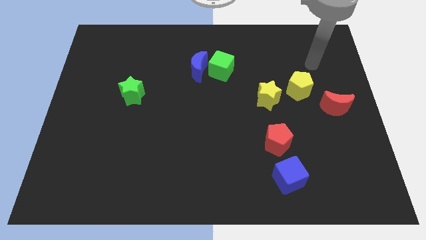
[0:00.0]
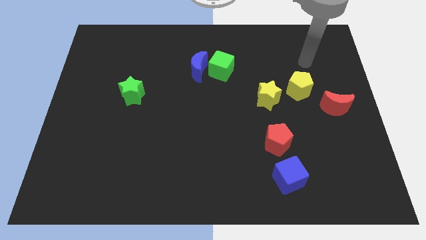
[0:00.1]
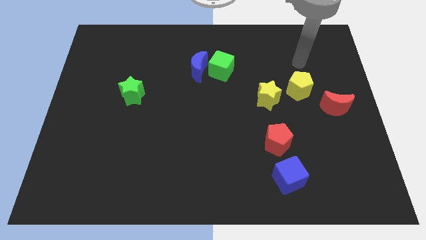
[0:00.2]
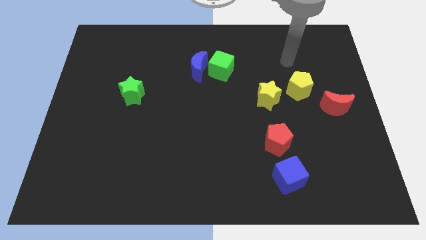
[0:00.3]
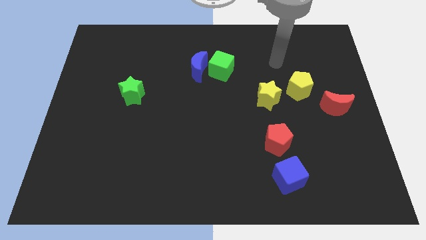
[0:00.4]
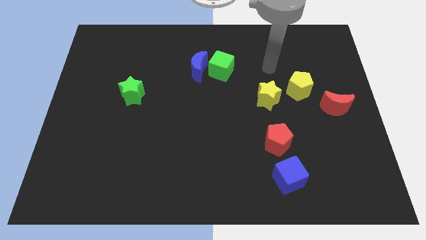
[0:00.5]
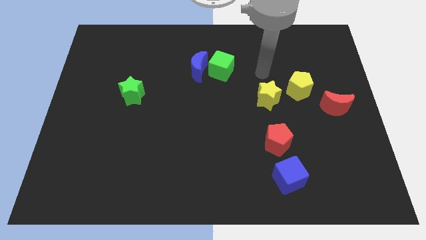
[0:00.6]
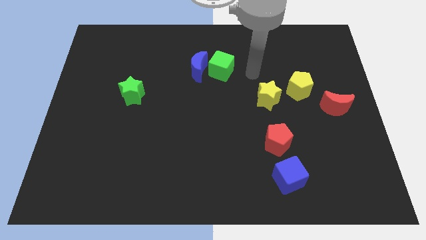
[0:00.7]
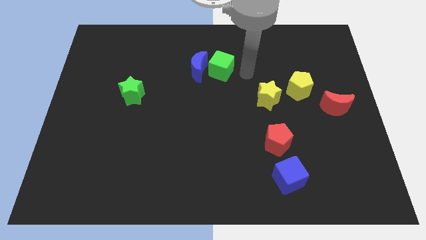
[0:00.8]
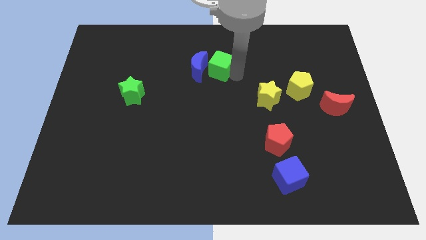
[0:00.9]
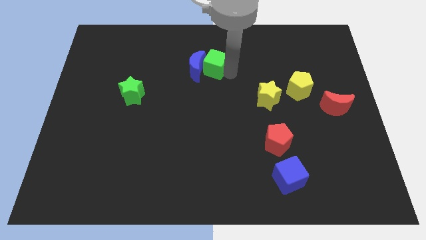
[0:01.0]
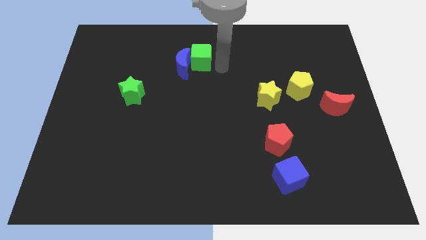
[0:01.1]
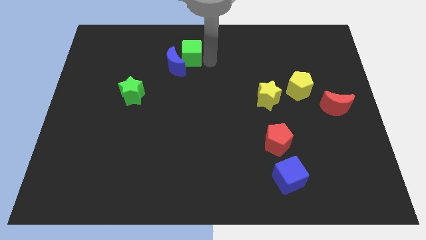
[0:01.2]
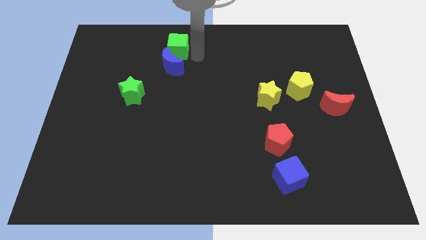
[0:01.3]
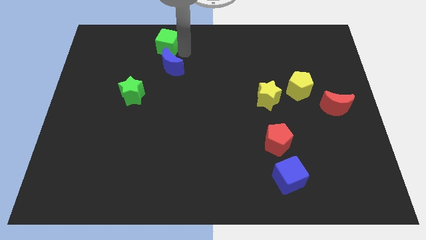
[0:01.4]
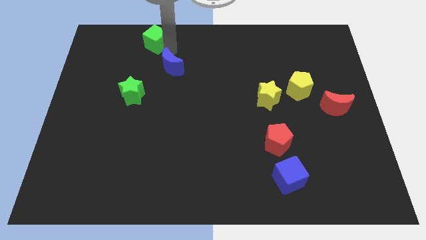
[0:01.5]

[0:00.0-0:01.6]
pull the blue moon apart from the green cube

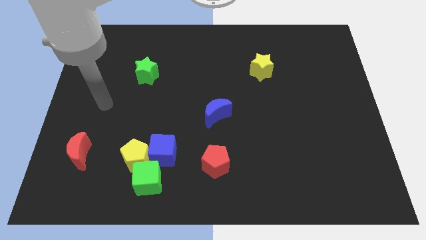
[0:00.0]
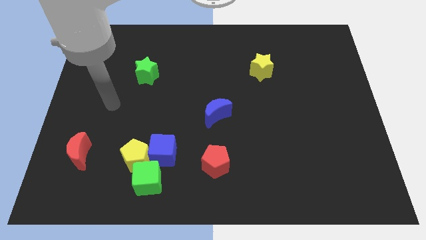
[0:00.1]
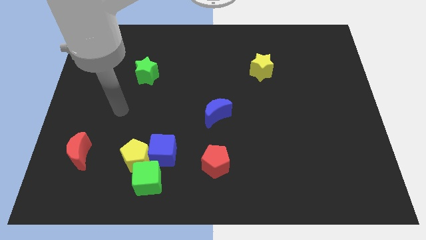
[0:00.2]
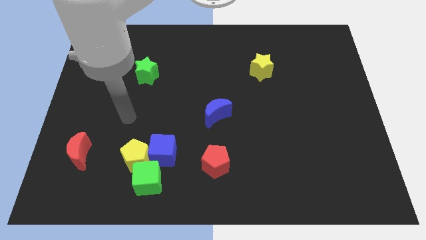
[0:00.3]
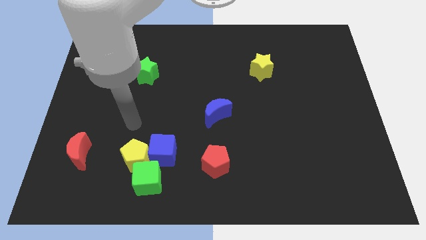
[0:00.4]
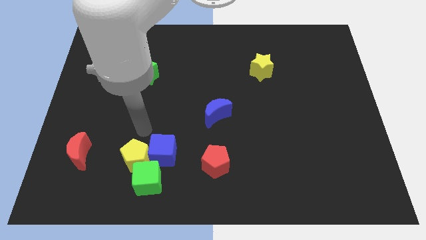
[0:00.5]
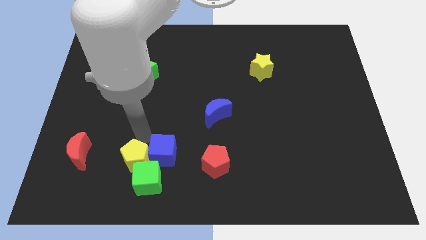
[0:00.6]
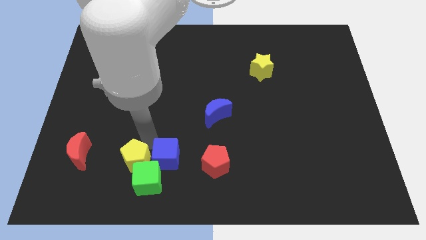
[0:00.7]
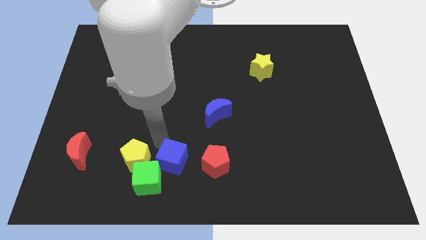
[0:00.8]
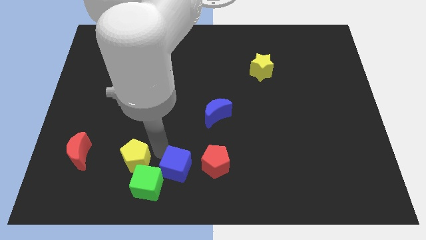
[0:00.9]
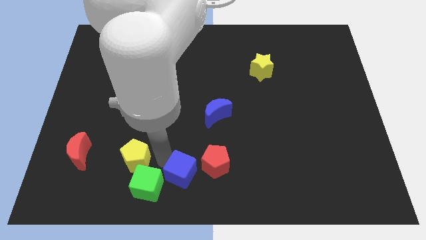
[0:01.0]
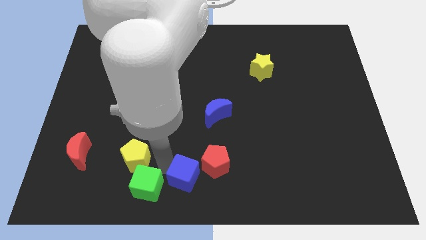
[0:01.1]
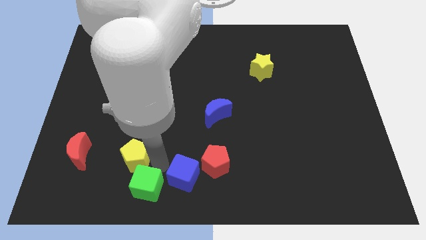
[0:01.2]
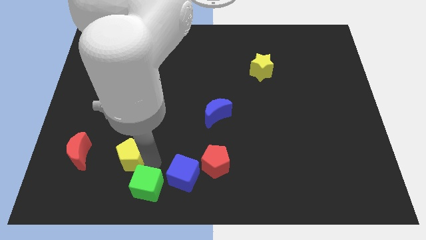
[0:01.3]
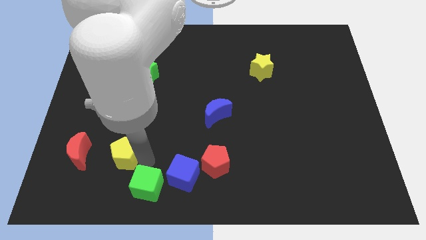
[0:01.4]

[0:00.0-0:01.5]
move the yellow pentagon away from the blue cube and green cube

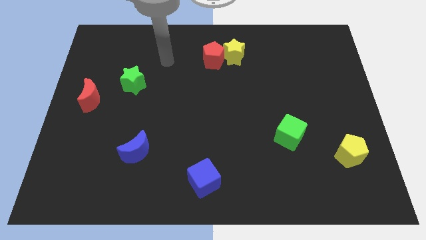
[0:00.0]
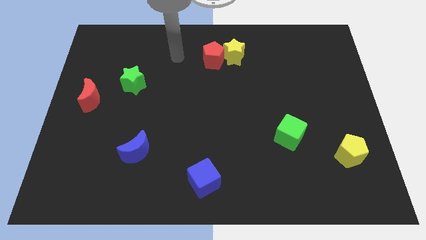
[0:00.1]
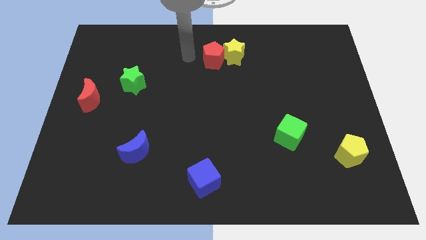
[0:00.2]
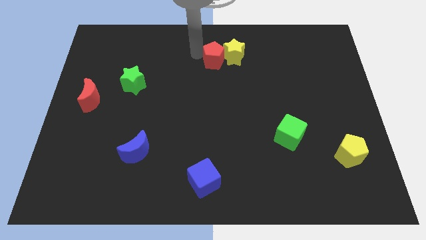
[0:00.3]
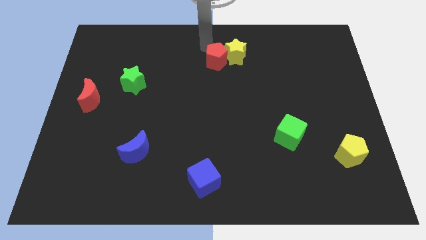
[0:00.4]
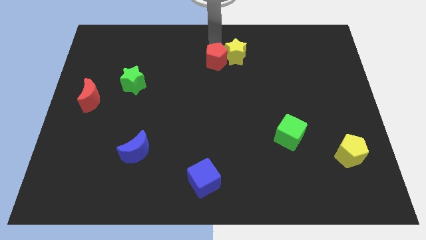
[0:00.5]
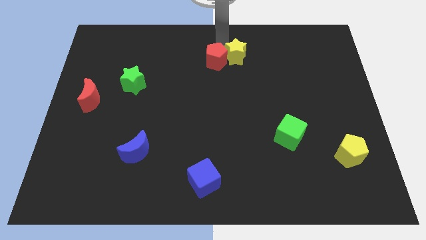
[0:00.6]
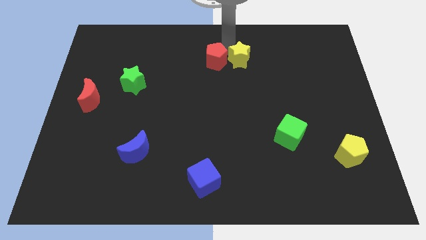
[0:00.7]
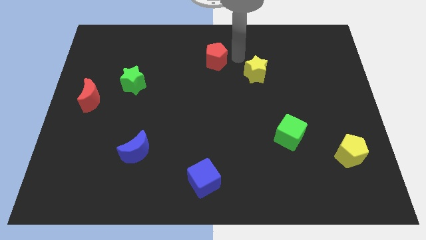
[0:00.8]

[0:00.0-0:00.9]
separate the red pentagon from the yellow star

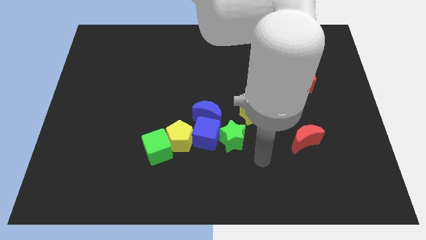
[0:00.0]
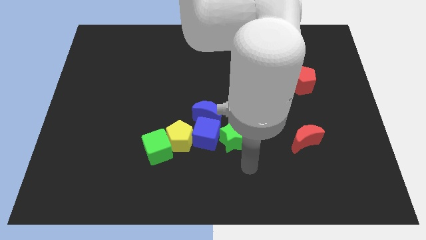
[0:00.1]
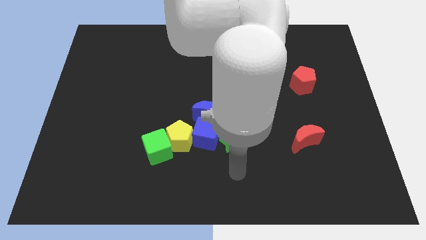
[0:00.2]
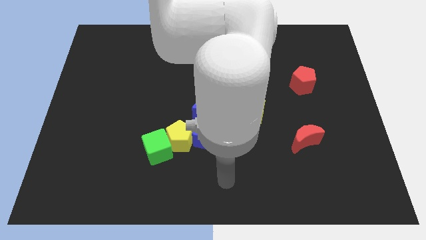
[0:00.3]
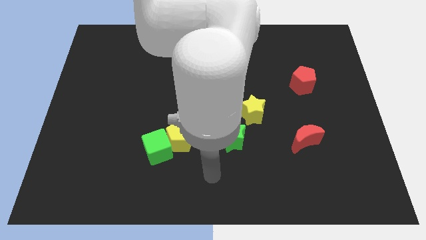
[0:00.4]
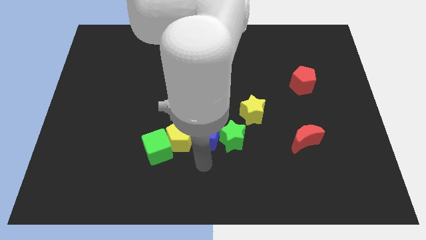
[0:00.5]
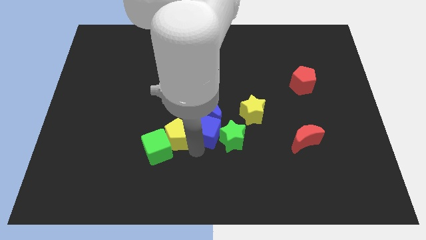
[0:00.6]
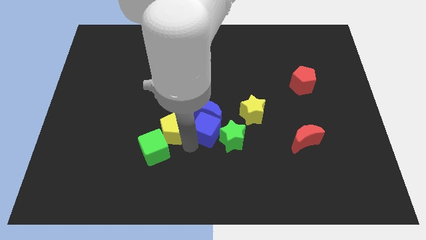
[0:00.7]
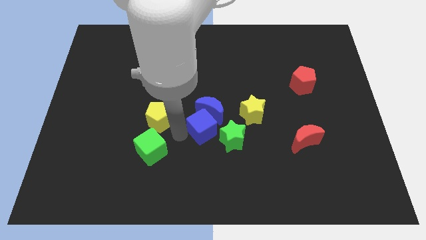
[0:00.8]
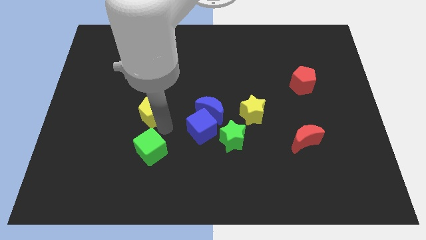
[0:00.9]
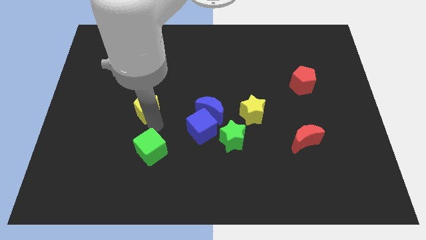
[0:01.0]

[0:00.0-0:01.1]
separate the green cube from the yellow pentagon

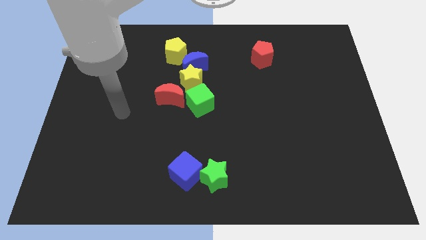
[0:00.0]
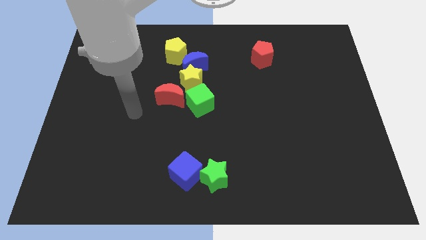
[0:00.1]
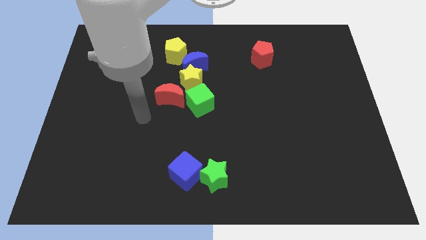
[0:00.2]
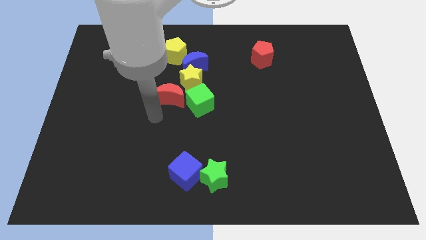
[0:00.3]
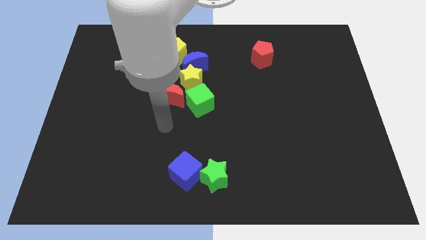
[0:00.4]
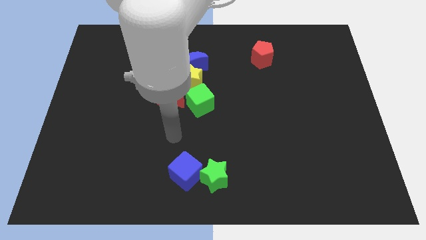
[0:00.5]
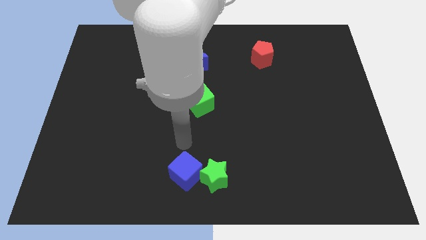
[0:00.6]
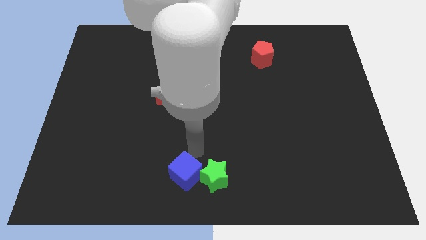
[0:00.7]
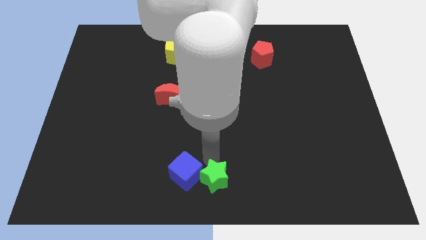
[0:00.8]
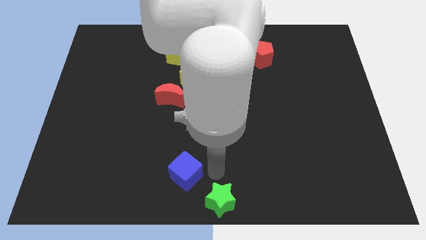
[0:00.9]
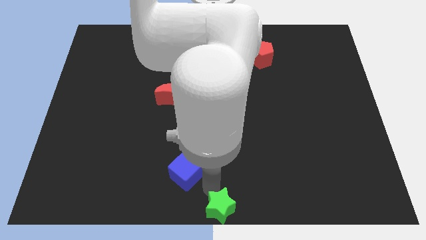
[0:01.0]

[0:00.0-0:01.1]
separate the blue cube from the green star

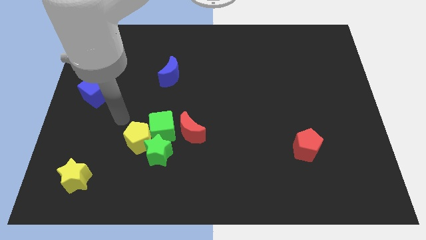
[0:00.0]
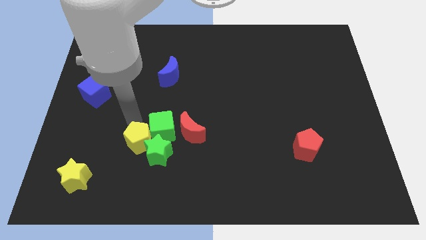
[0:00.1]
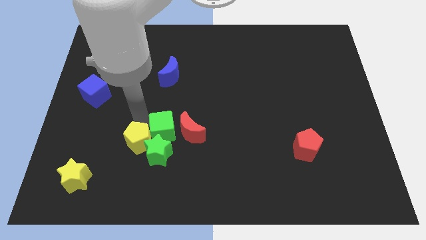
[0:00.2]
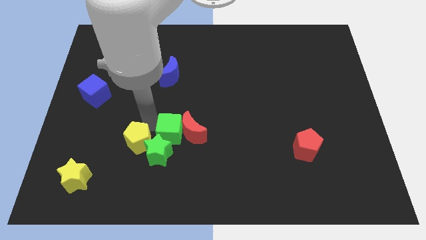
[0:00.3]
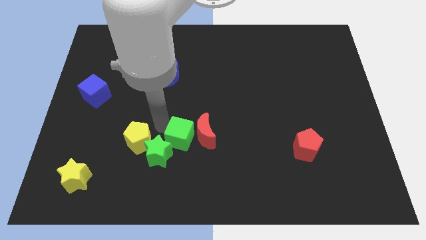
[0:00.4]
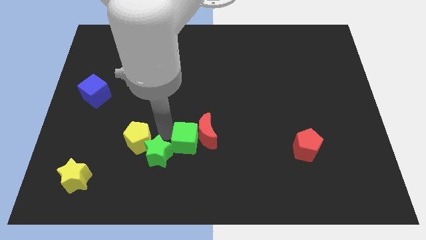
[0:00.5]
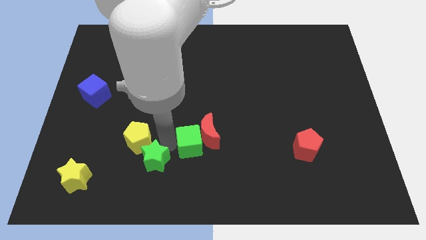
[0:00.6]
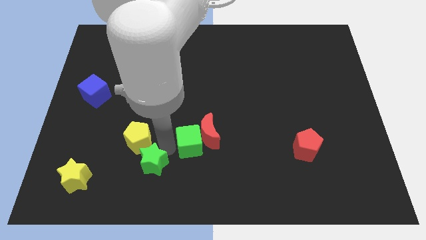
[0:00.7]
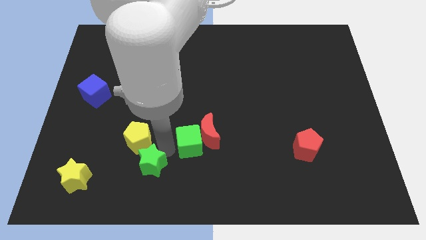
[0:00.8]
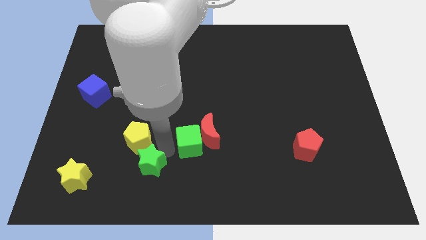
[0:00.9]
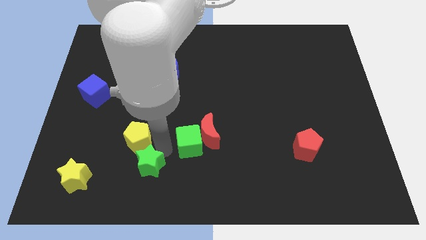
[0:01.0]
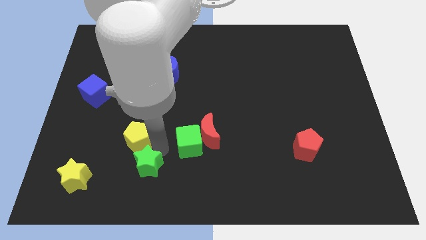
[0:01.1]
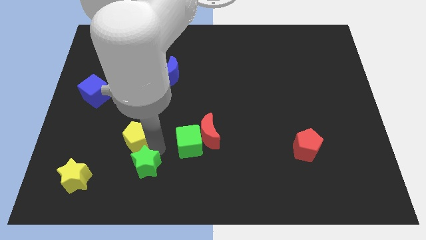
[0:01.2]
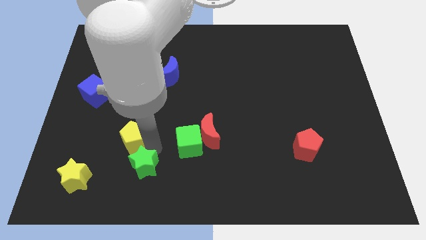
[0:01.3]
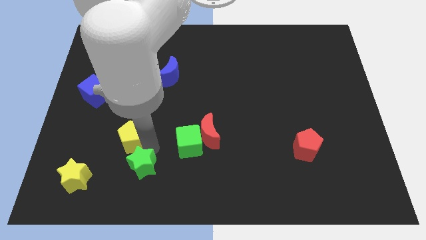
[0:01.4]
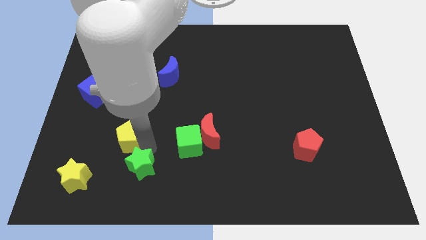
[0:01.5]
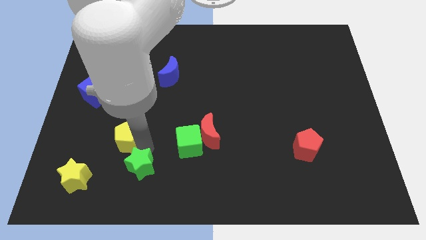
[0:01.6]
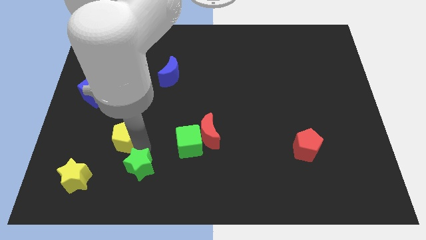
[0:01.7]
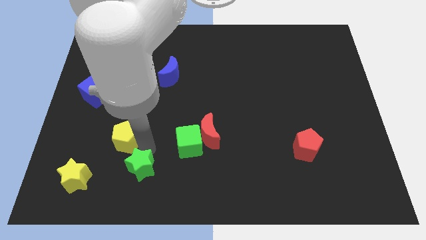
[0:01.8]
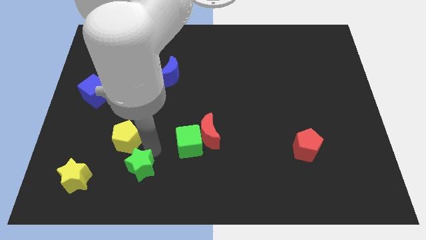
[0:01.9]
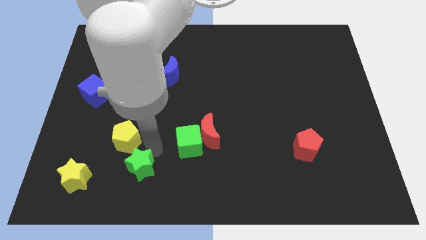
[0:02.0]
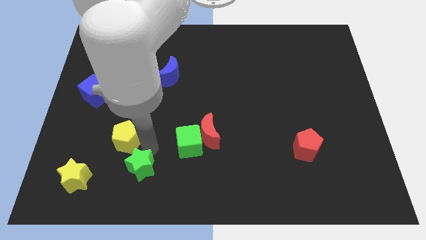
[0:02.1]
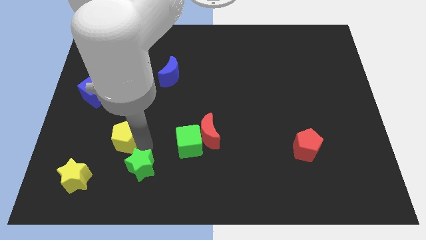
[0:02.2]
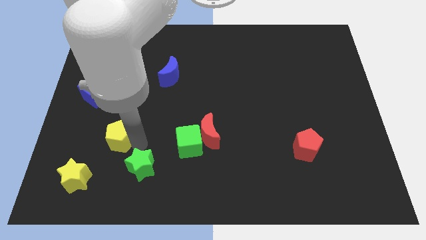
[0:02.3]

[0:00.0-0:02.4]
move the yellow pentagon away from the green star and green cube

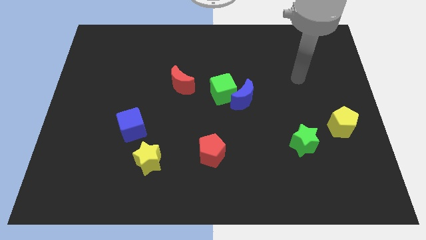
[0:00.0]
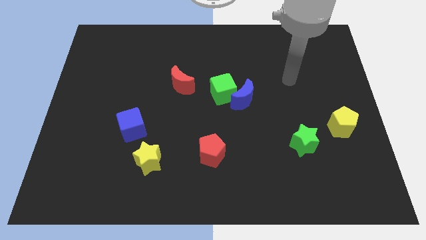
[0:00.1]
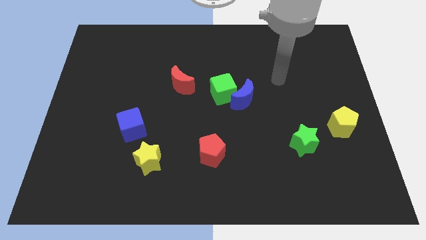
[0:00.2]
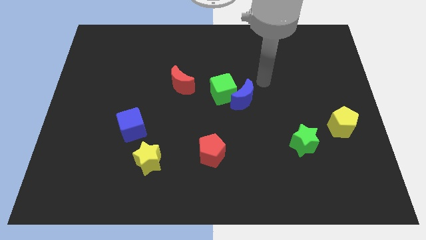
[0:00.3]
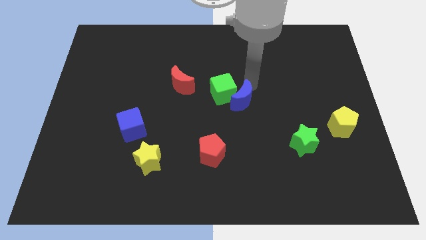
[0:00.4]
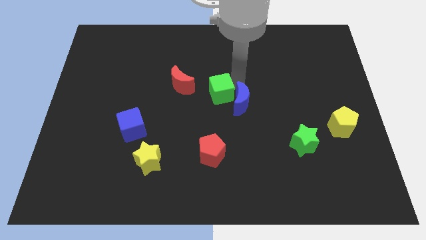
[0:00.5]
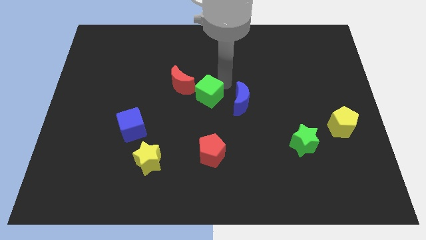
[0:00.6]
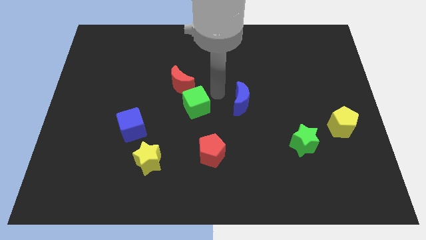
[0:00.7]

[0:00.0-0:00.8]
move the blue moon away from the green cube
